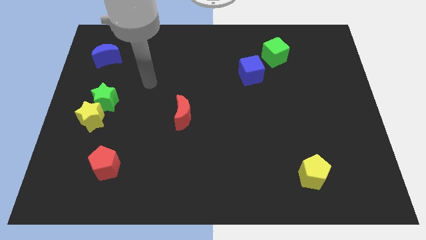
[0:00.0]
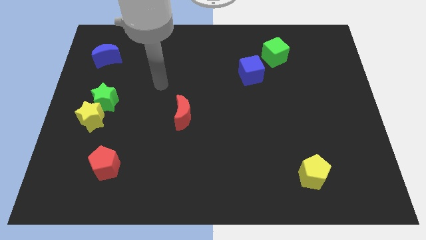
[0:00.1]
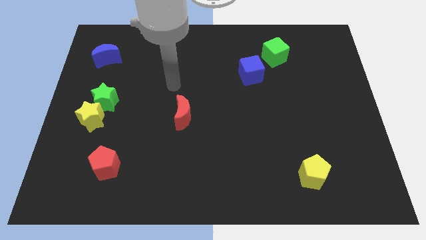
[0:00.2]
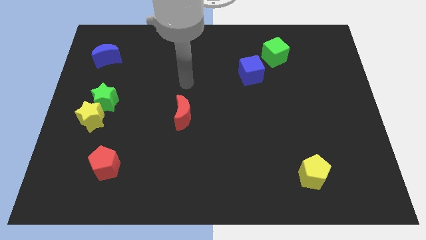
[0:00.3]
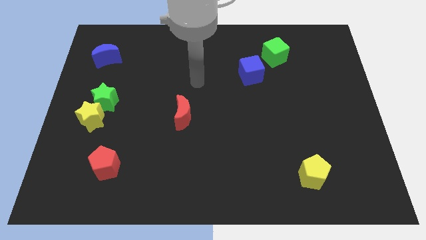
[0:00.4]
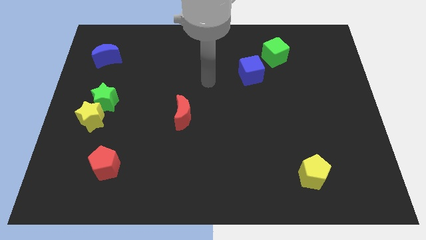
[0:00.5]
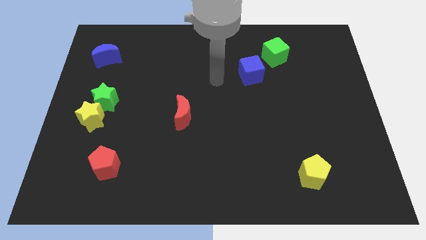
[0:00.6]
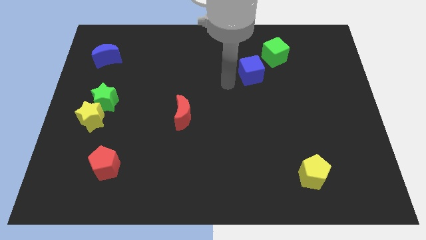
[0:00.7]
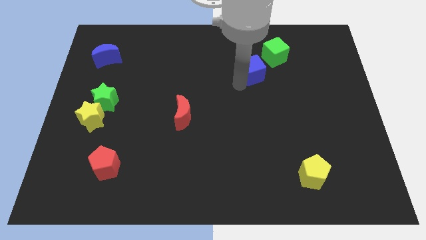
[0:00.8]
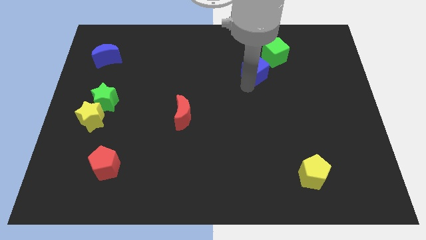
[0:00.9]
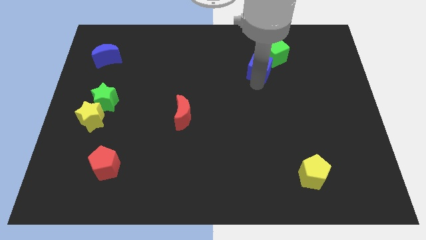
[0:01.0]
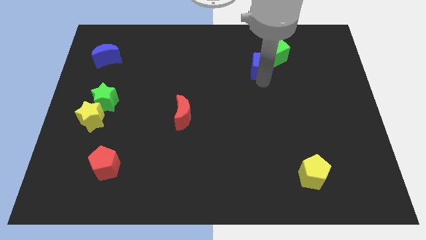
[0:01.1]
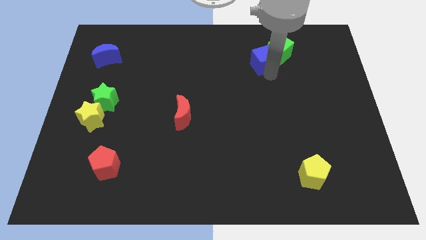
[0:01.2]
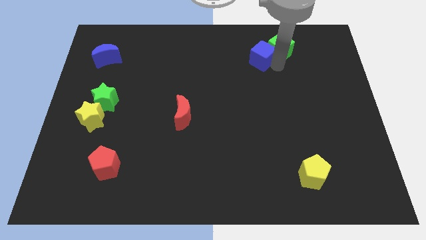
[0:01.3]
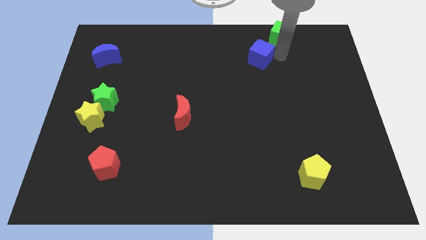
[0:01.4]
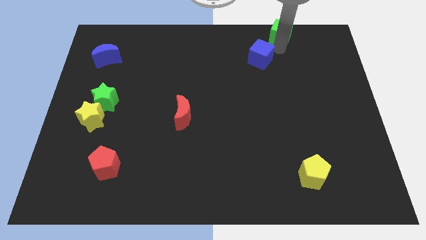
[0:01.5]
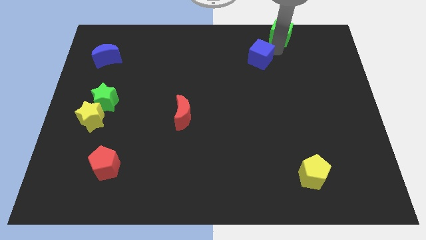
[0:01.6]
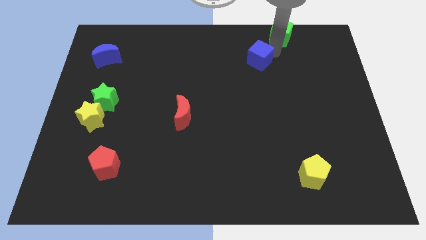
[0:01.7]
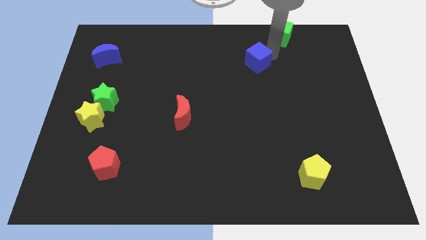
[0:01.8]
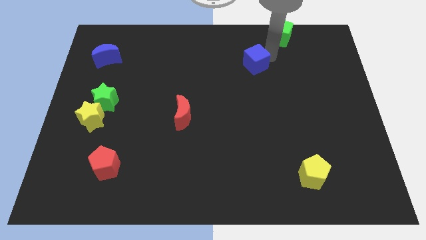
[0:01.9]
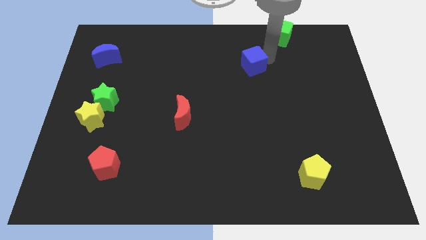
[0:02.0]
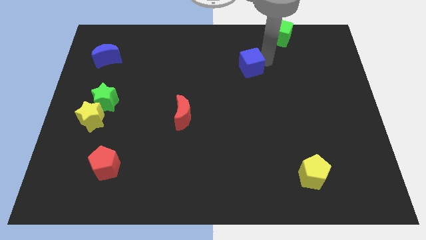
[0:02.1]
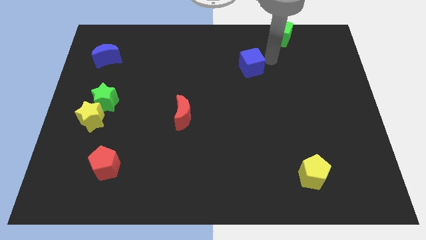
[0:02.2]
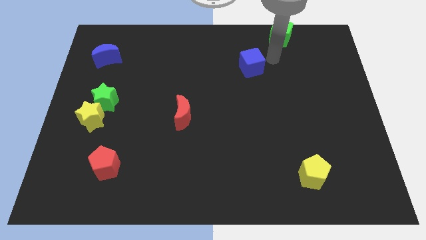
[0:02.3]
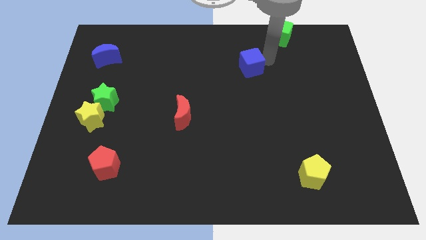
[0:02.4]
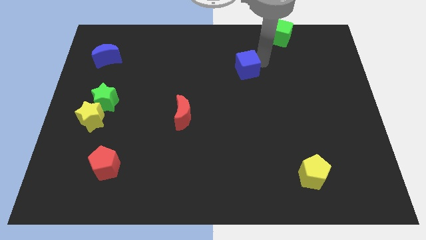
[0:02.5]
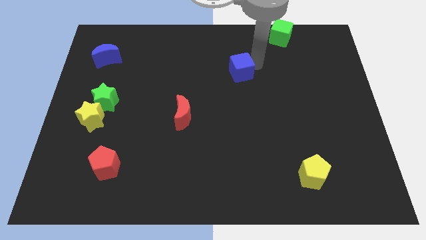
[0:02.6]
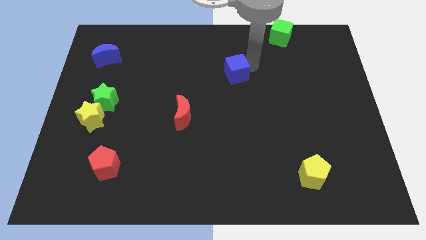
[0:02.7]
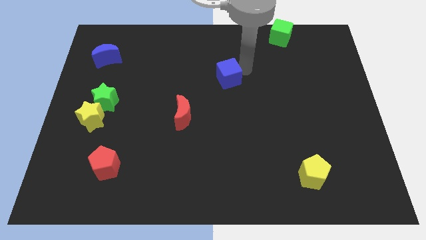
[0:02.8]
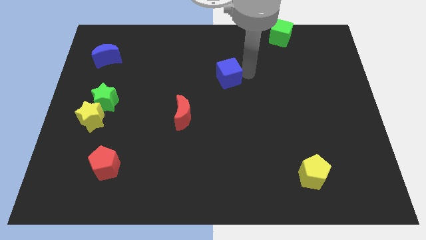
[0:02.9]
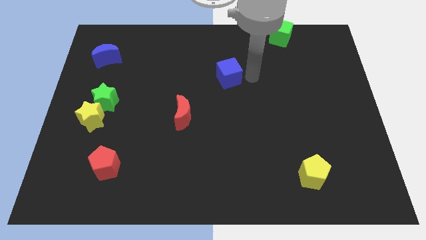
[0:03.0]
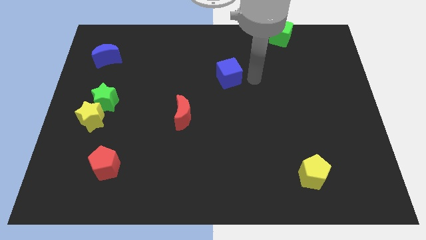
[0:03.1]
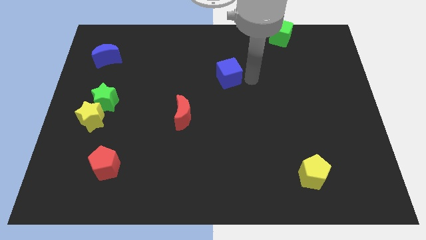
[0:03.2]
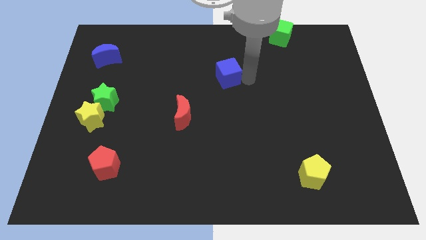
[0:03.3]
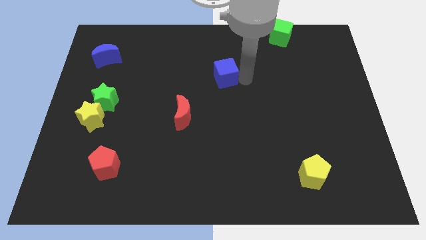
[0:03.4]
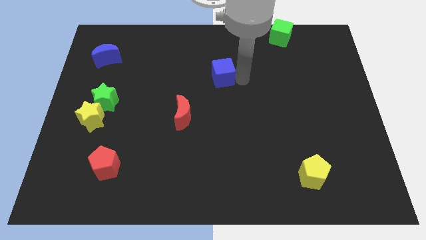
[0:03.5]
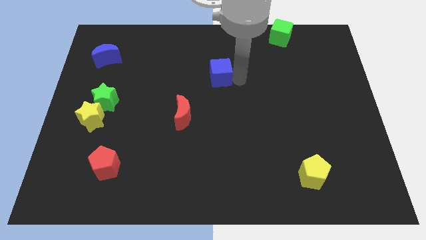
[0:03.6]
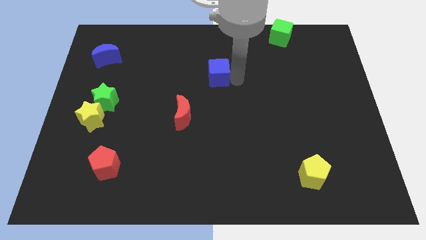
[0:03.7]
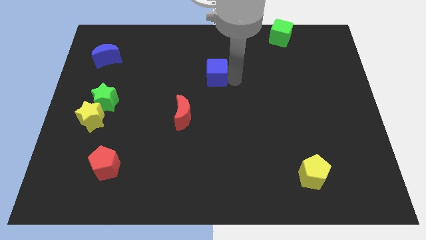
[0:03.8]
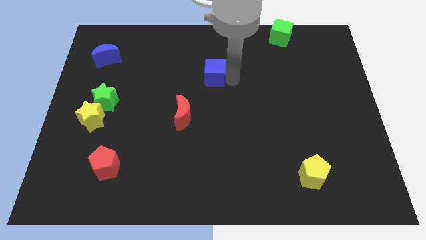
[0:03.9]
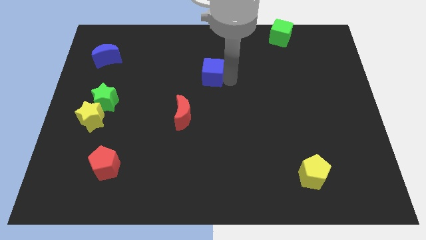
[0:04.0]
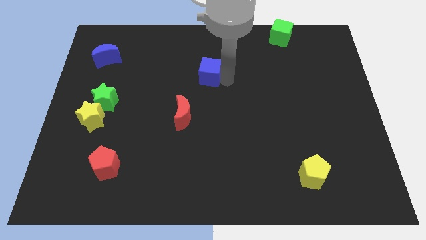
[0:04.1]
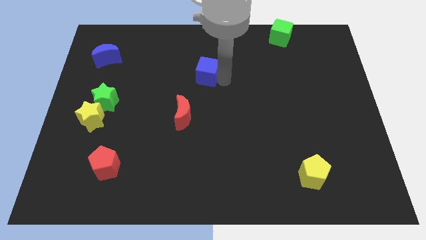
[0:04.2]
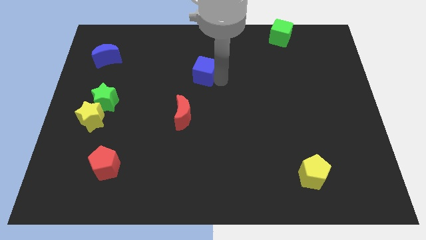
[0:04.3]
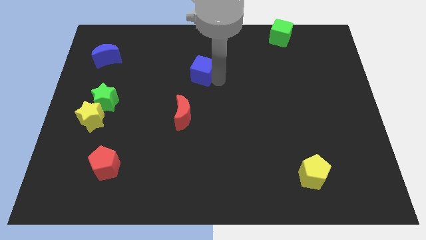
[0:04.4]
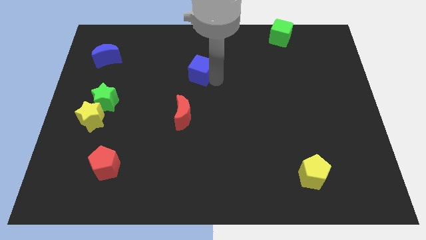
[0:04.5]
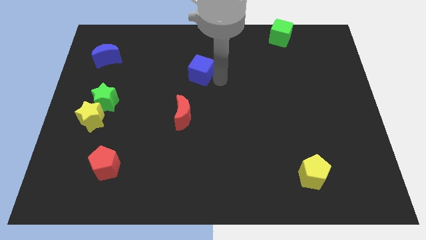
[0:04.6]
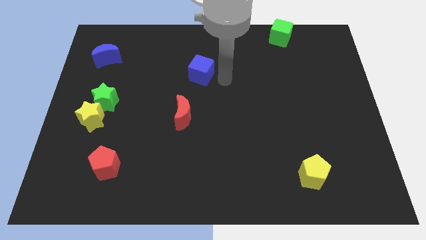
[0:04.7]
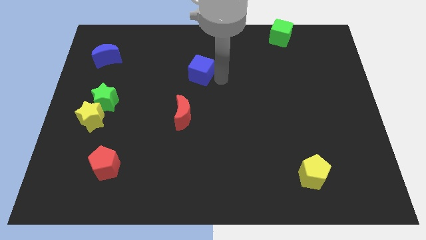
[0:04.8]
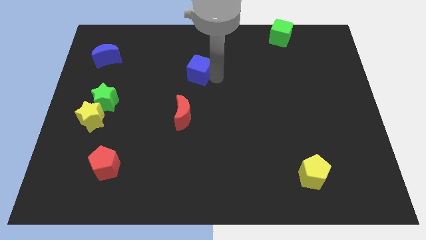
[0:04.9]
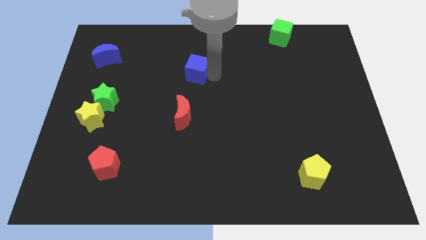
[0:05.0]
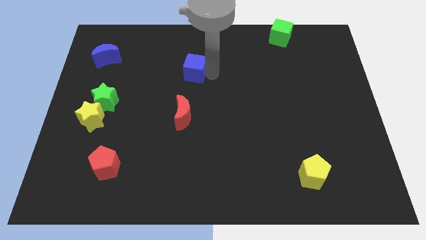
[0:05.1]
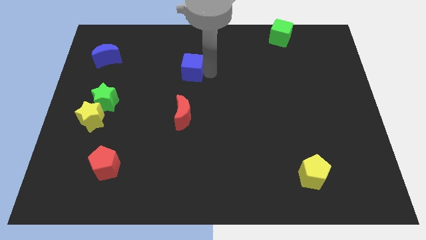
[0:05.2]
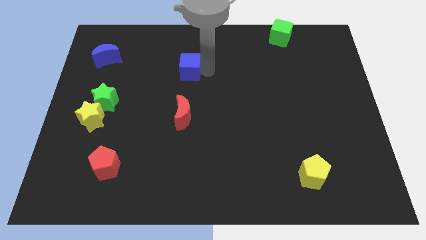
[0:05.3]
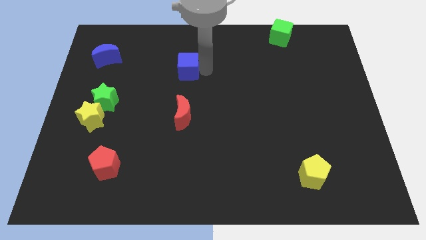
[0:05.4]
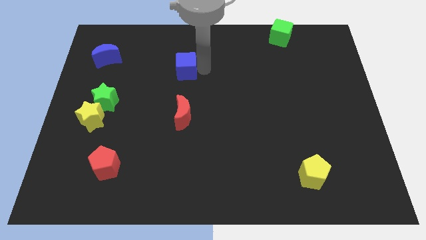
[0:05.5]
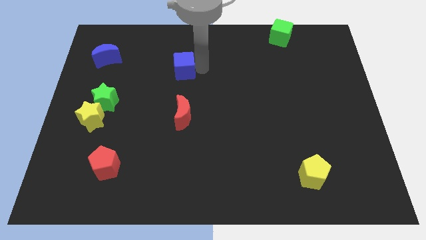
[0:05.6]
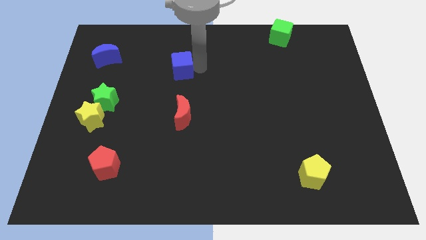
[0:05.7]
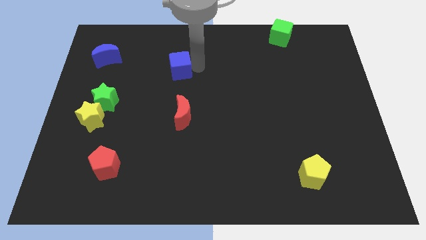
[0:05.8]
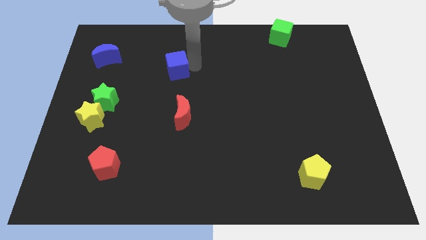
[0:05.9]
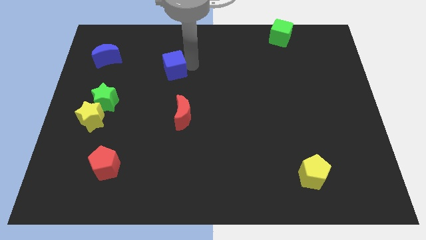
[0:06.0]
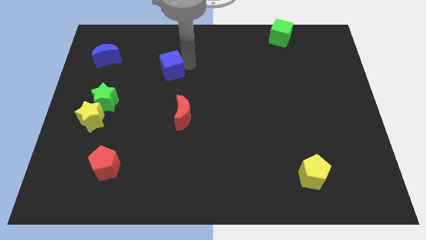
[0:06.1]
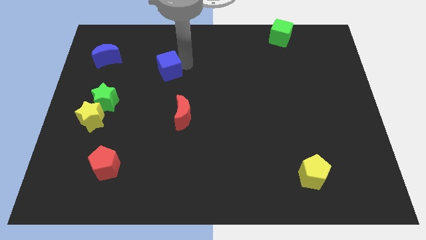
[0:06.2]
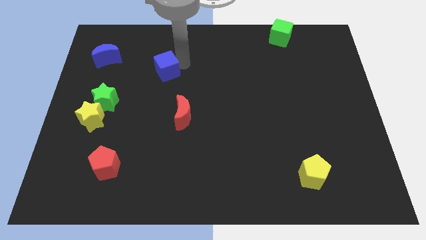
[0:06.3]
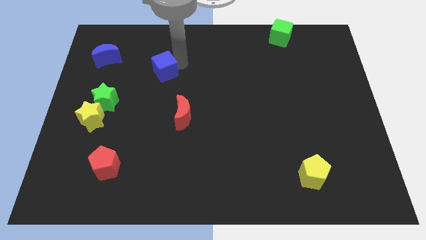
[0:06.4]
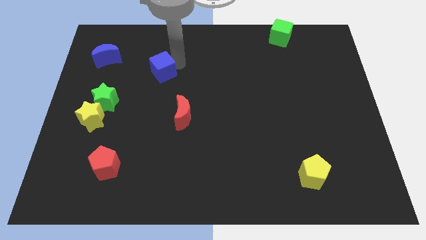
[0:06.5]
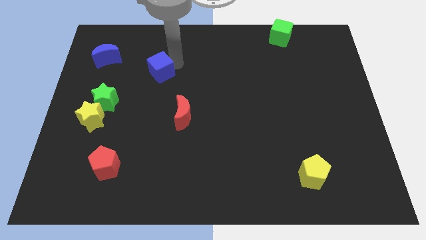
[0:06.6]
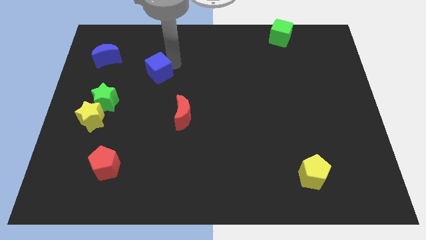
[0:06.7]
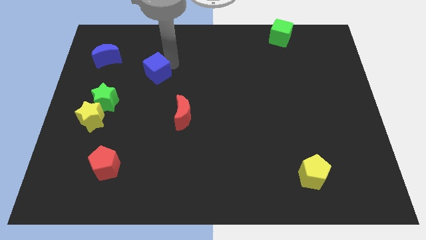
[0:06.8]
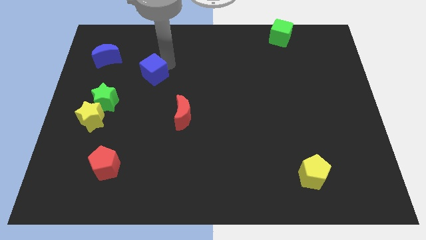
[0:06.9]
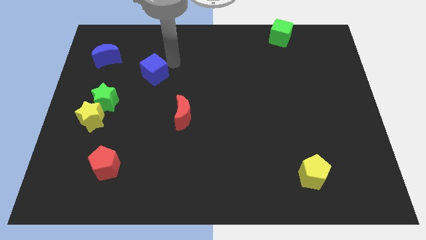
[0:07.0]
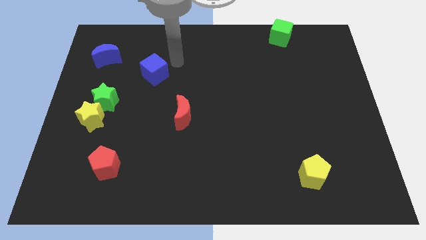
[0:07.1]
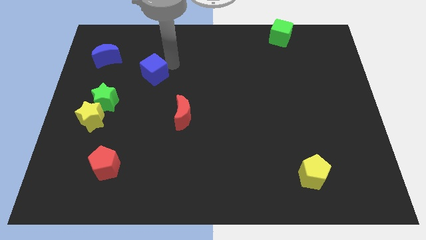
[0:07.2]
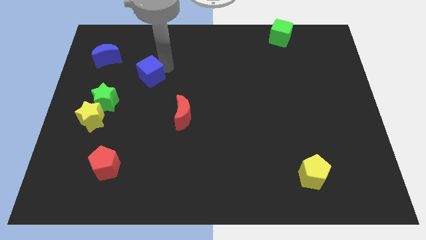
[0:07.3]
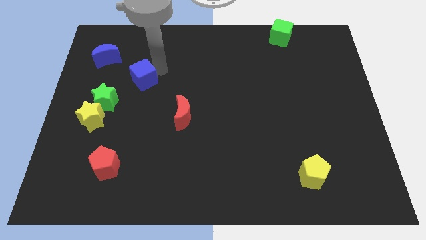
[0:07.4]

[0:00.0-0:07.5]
slide the blue cube diagonally up and to the right of the green star

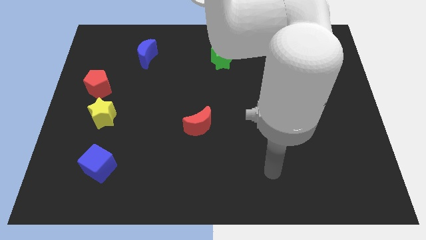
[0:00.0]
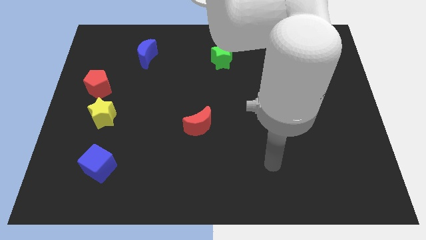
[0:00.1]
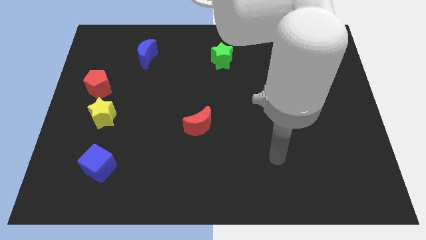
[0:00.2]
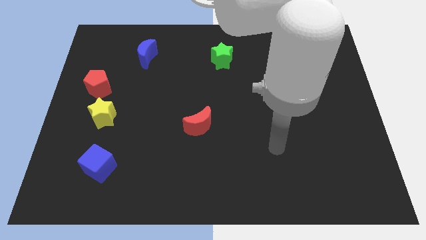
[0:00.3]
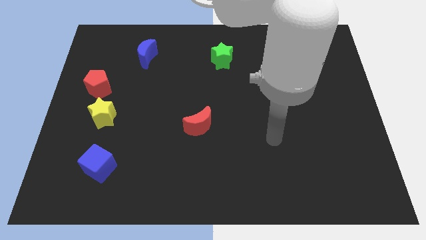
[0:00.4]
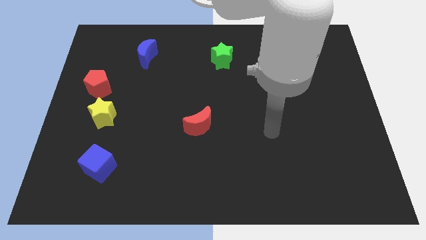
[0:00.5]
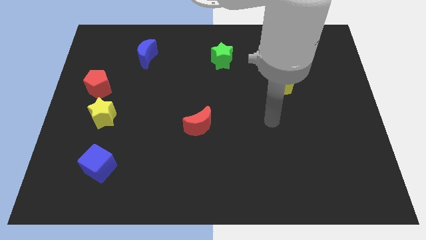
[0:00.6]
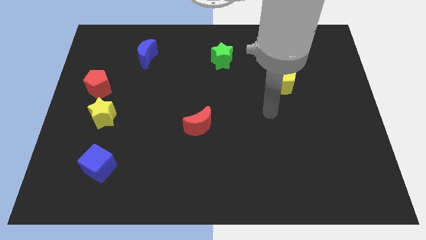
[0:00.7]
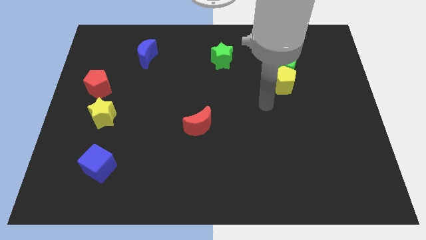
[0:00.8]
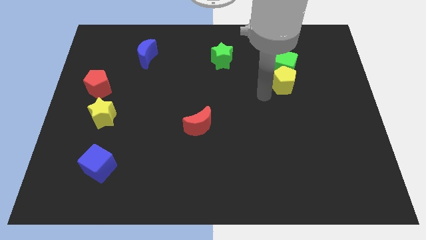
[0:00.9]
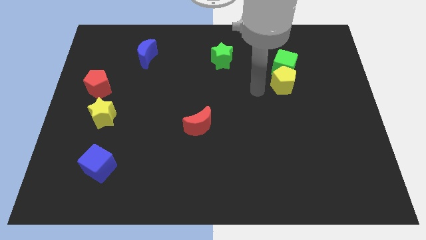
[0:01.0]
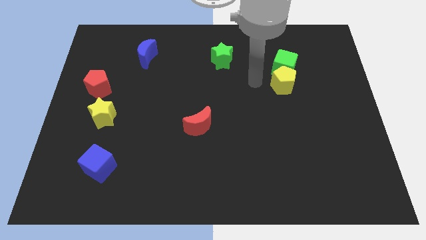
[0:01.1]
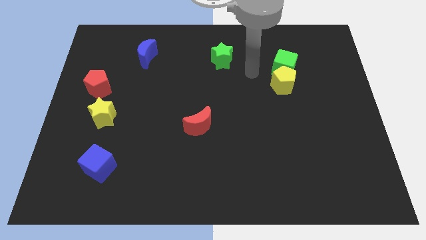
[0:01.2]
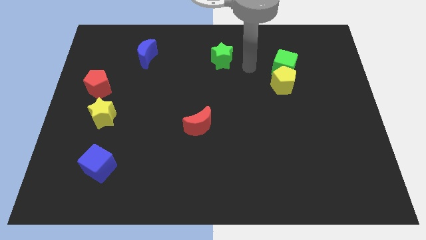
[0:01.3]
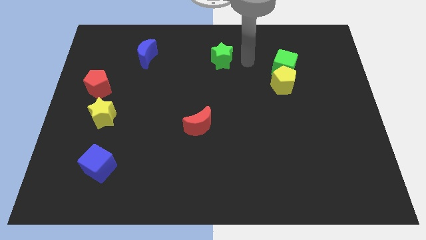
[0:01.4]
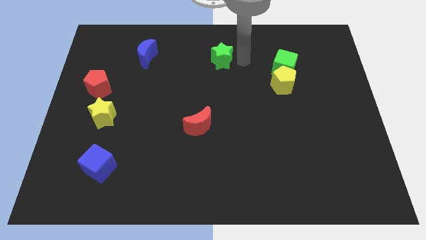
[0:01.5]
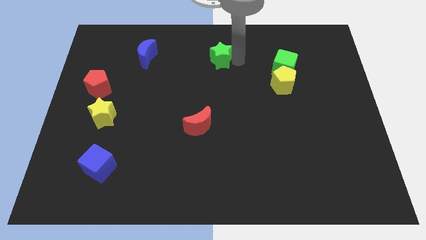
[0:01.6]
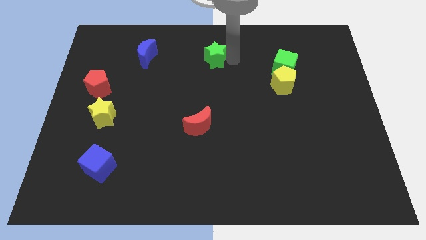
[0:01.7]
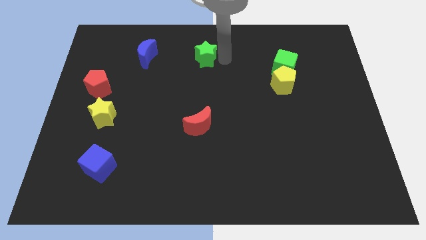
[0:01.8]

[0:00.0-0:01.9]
push the green star just right of the blue moon
